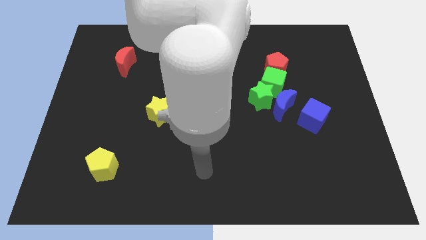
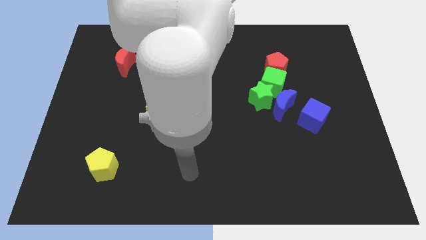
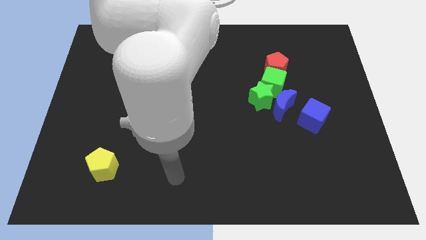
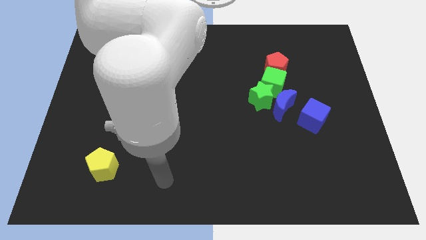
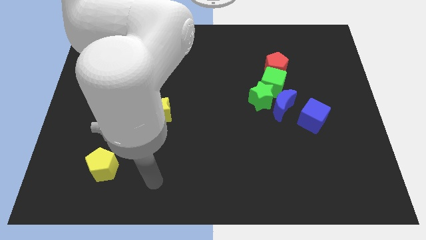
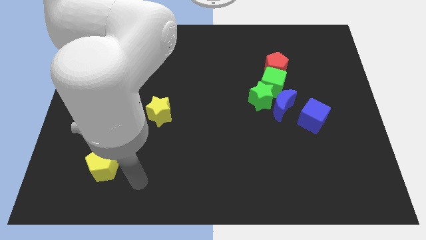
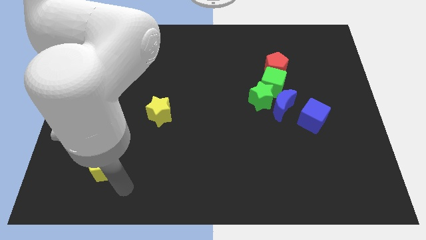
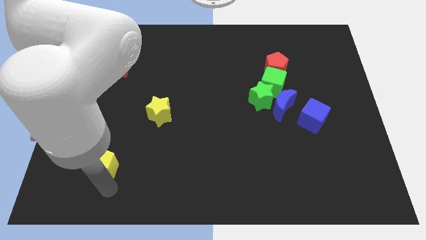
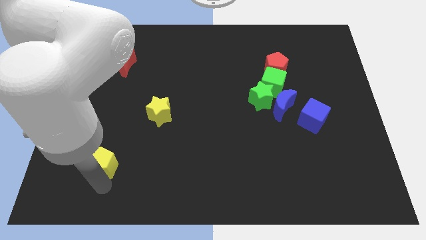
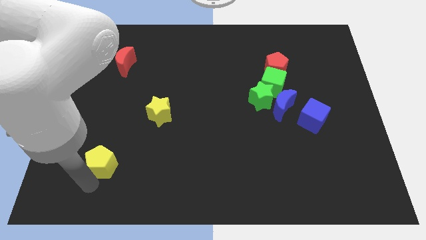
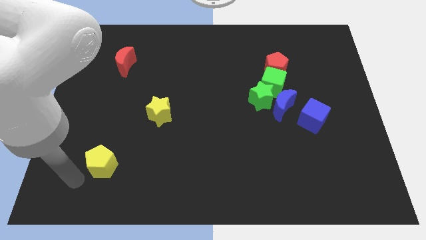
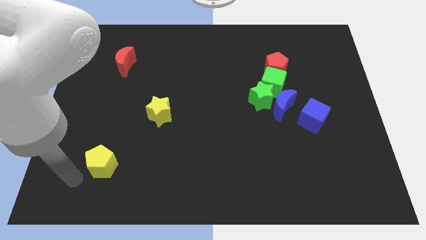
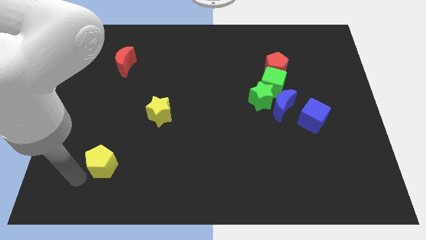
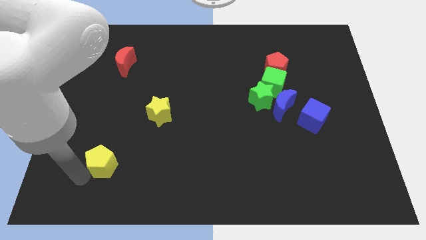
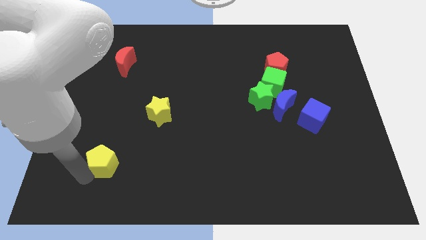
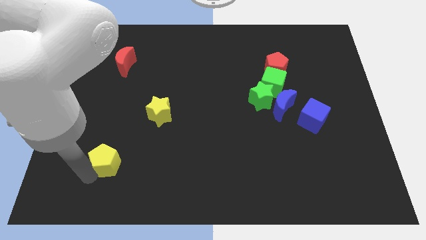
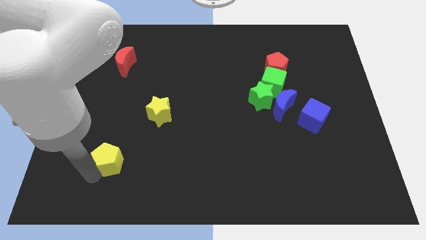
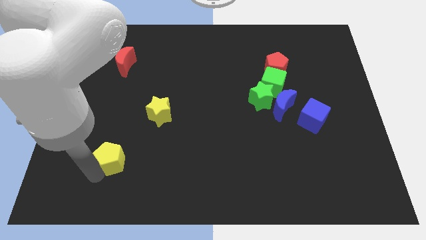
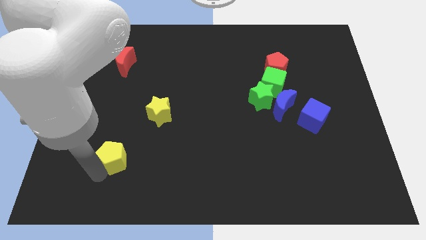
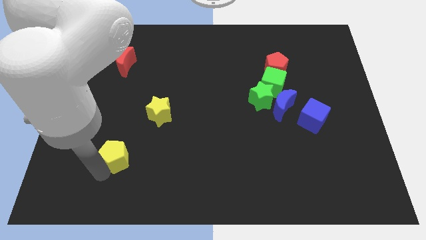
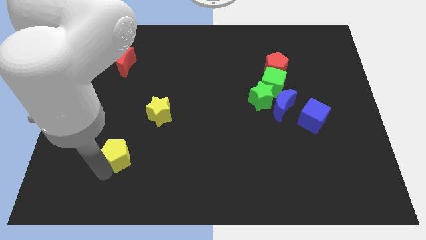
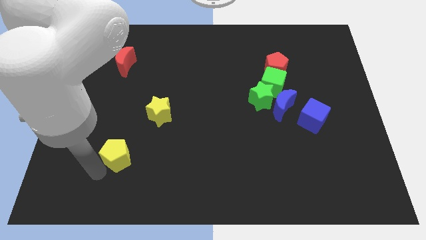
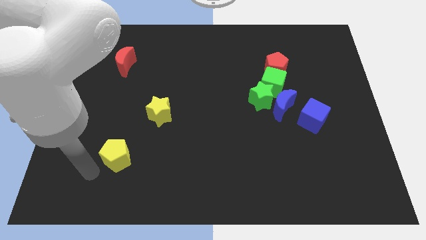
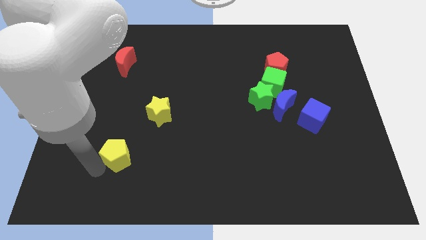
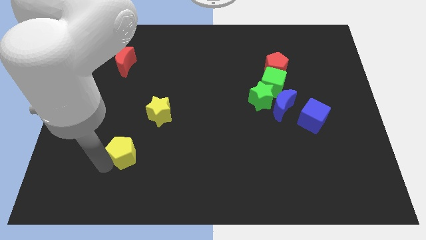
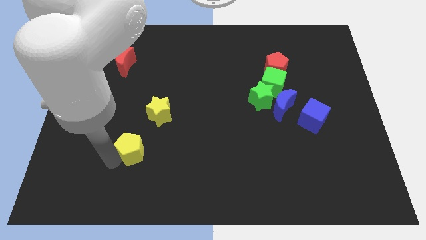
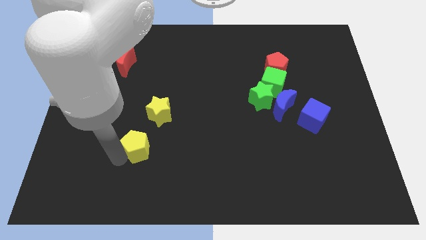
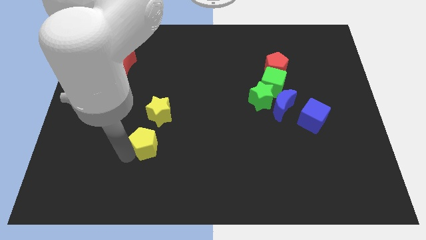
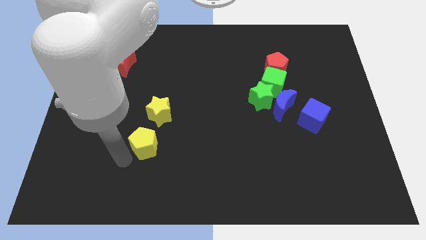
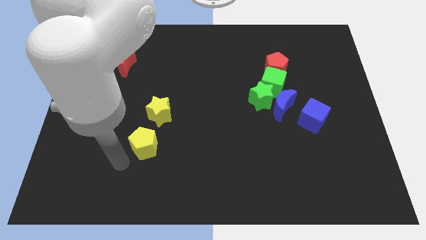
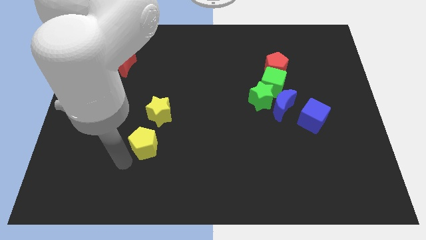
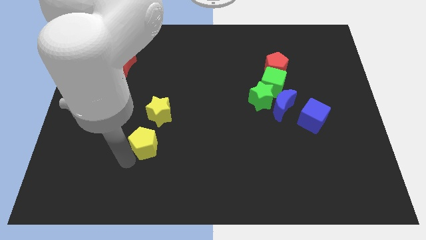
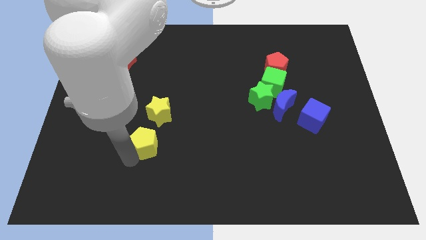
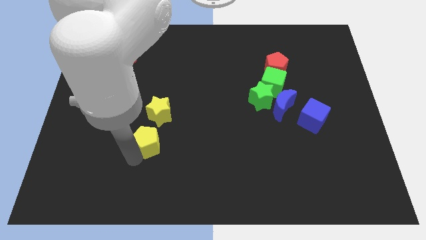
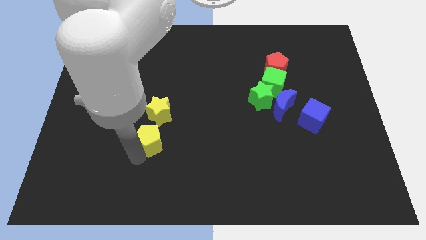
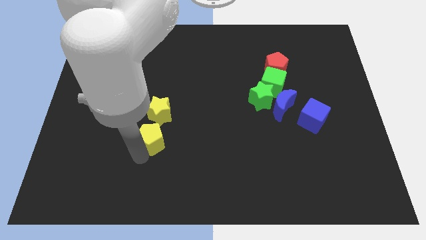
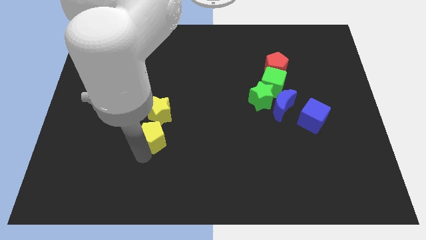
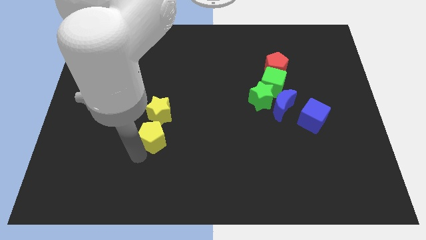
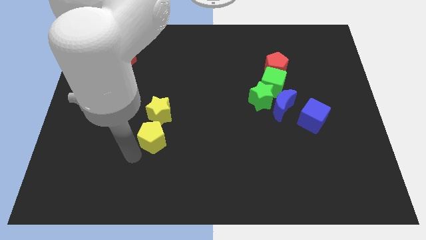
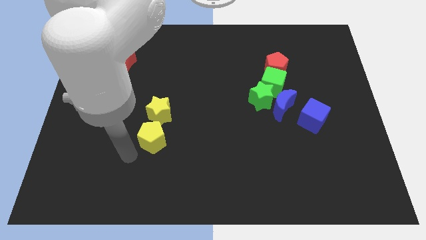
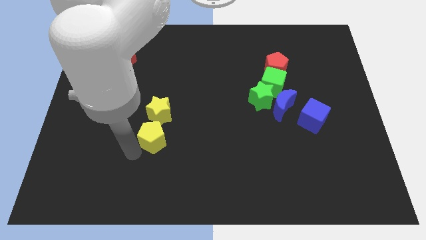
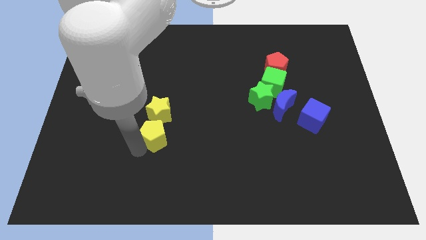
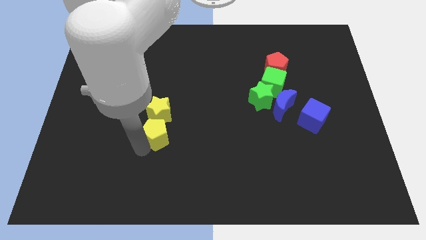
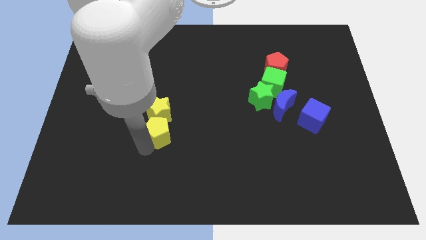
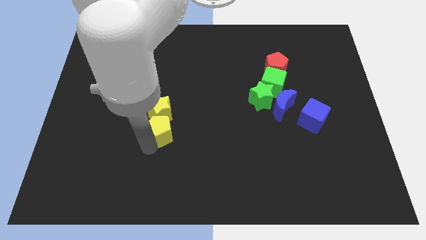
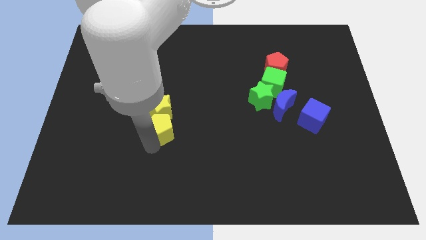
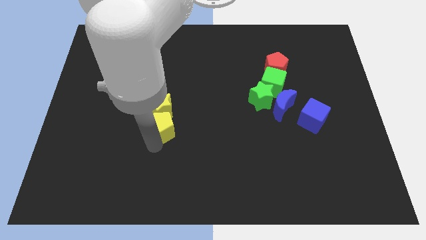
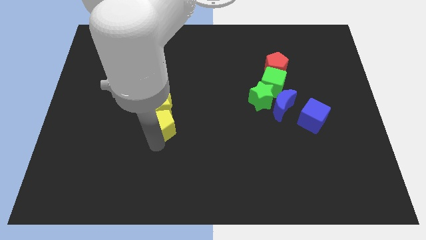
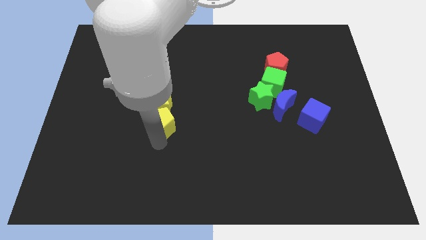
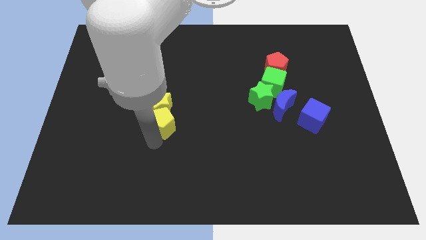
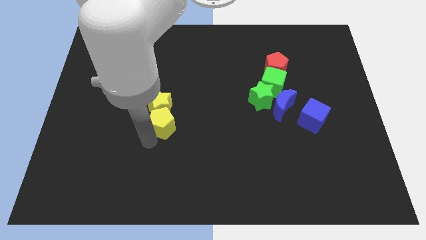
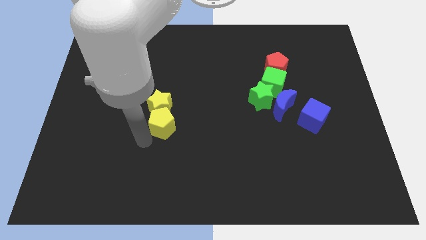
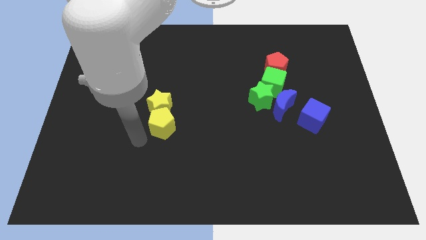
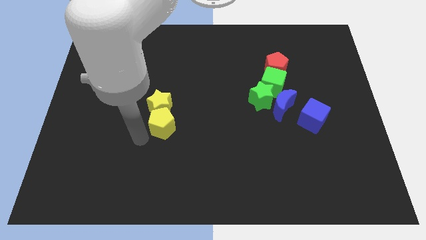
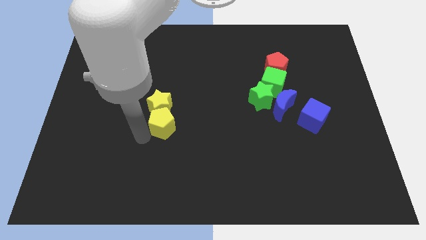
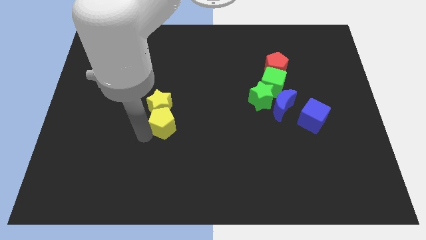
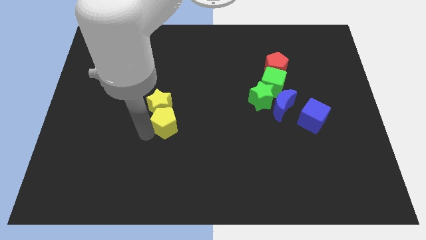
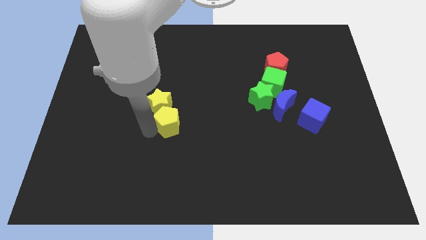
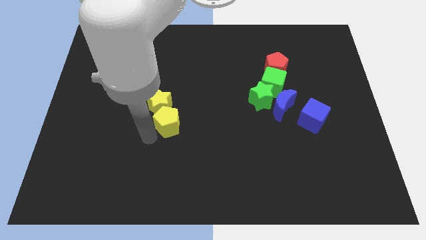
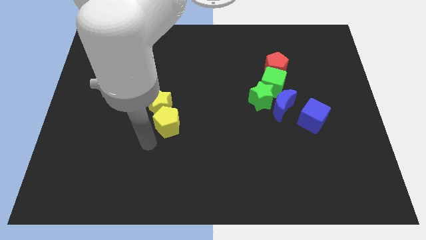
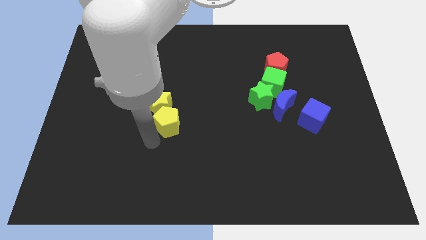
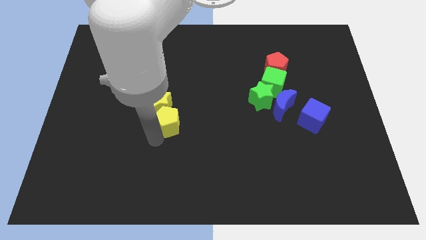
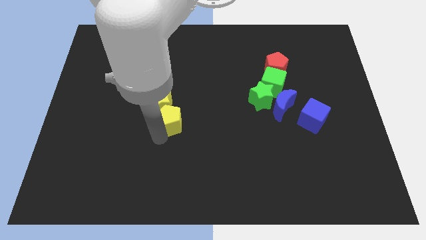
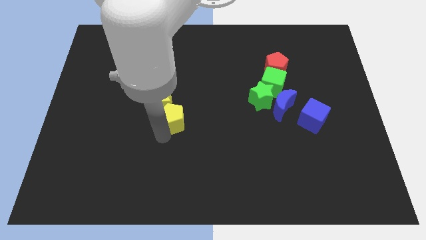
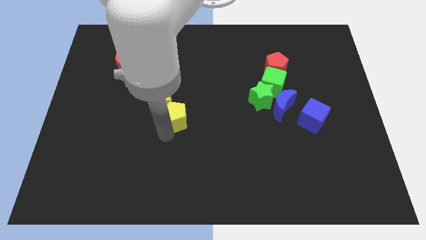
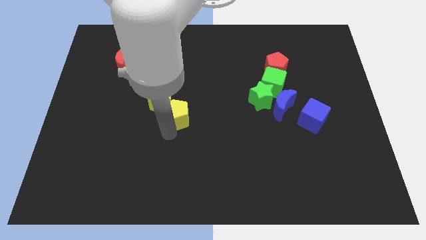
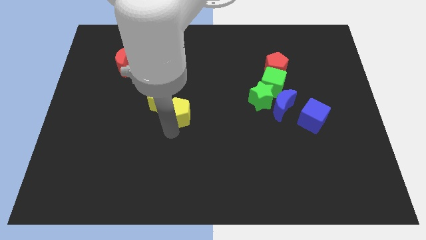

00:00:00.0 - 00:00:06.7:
slide the yellow pentagon diagonally upwards and to the right

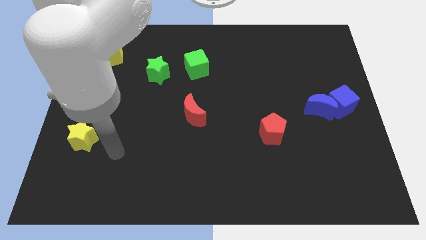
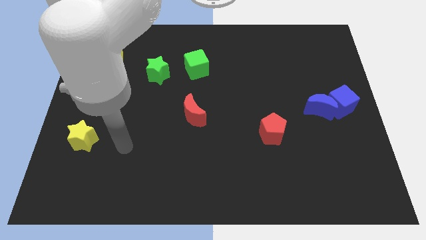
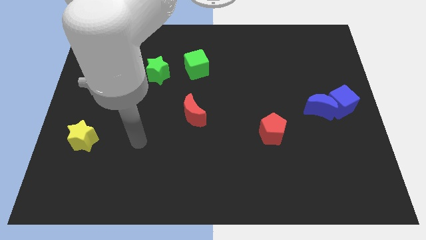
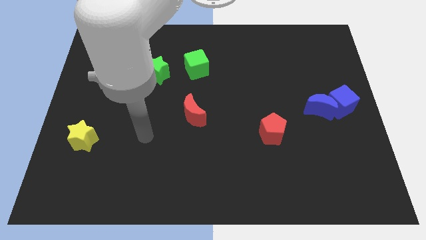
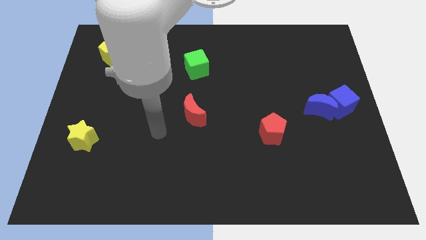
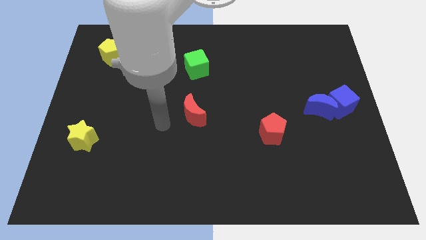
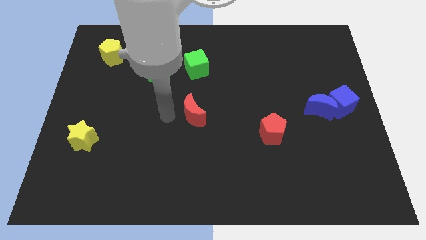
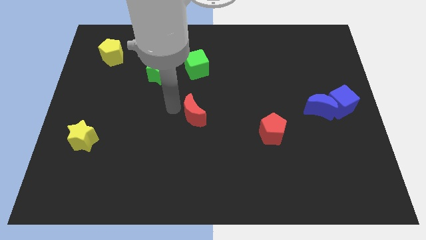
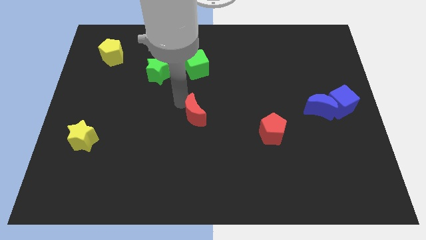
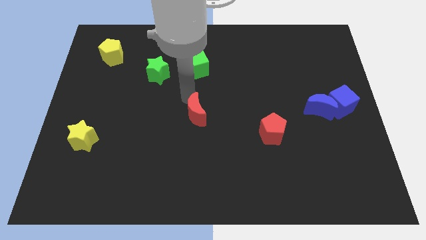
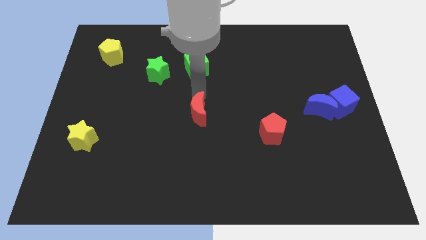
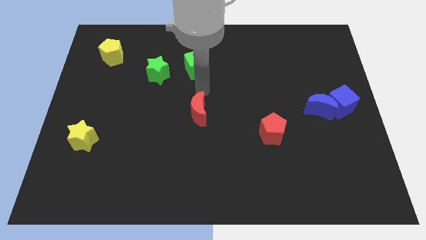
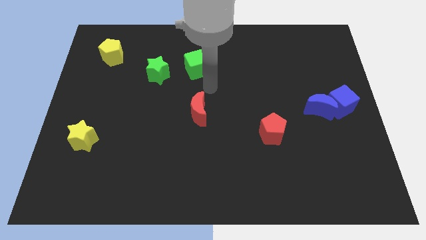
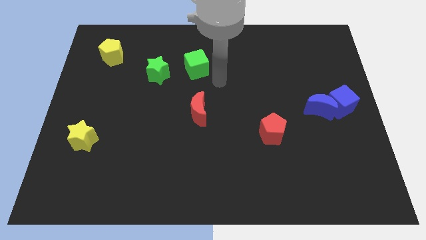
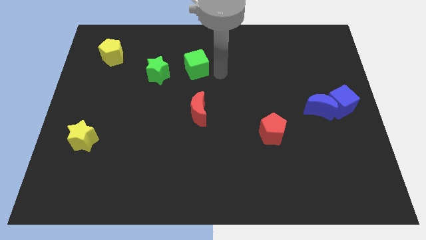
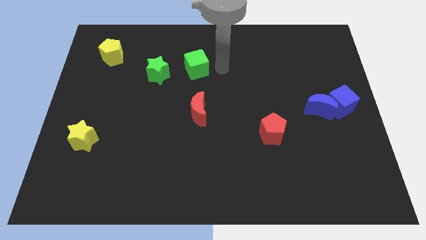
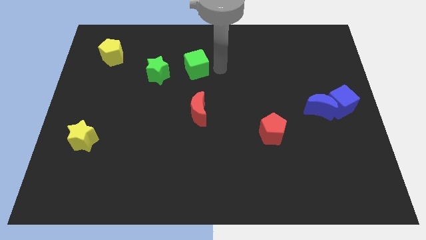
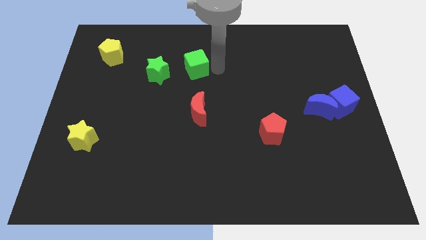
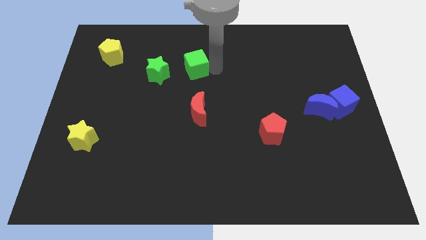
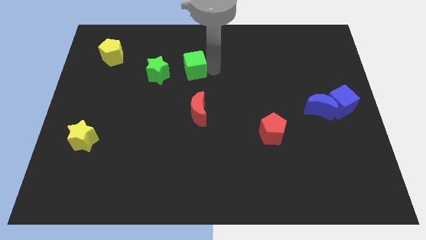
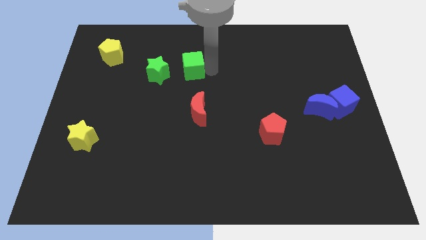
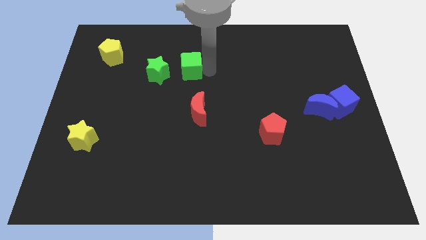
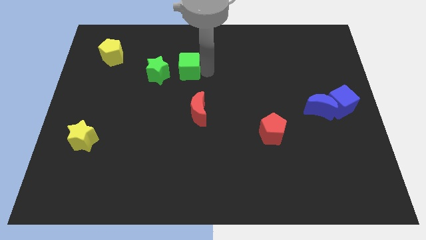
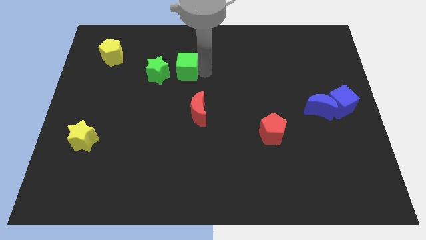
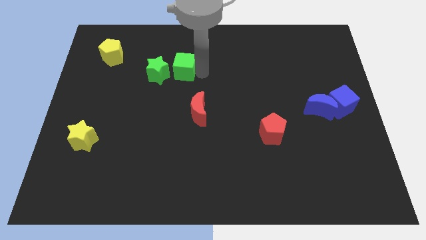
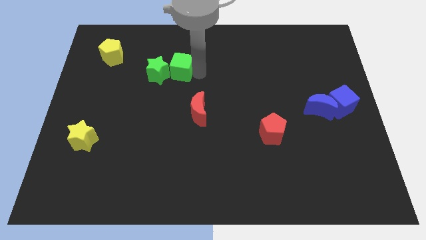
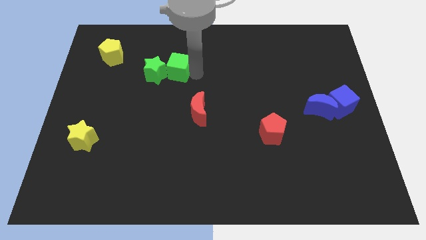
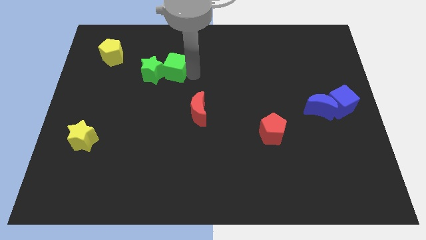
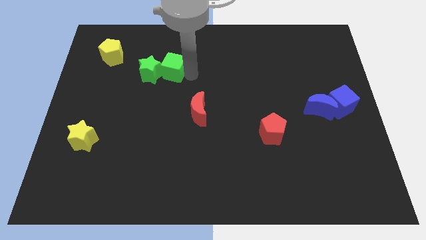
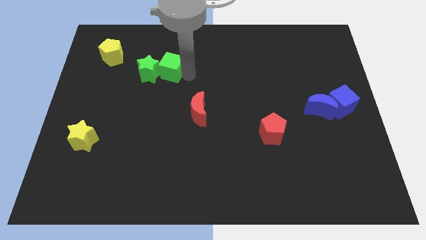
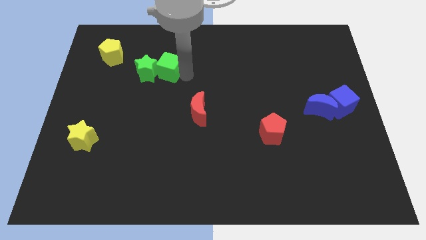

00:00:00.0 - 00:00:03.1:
slightly move the green cube left
